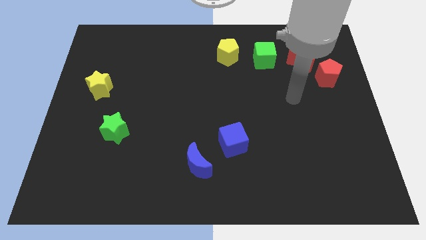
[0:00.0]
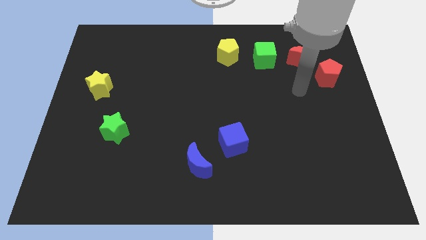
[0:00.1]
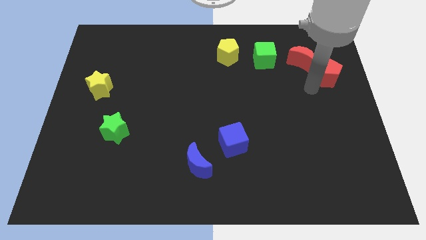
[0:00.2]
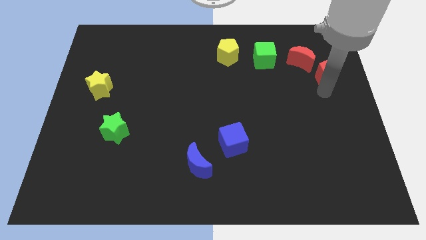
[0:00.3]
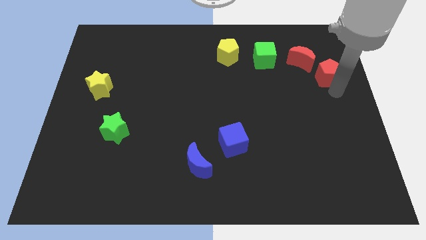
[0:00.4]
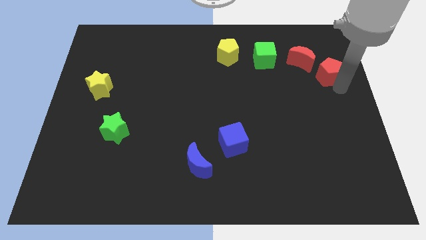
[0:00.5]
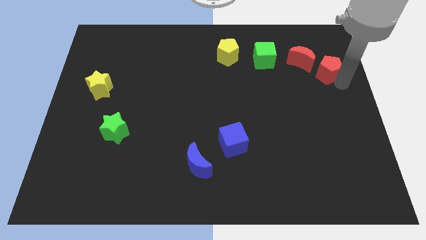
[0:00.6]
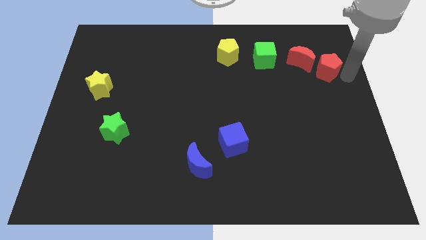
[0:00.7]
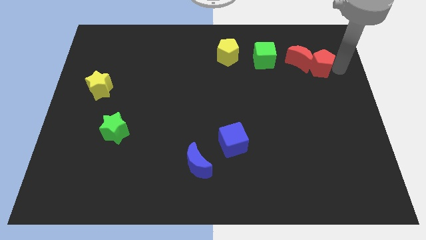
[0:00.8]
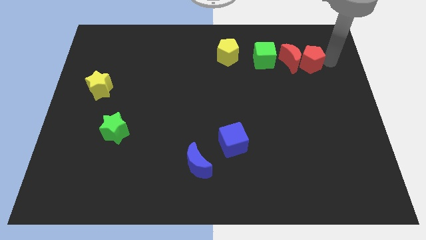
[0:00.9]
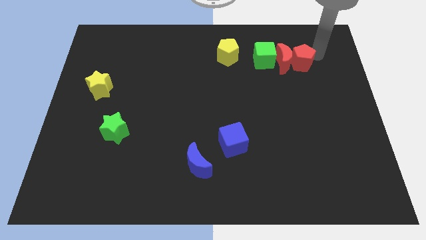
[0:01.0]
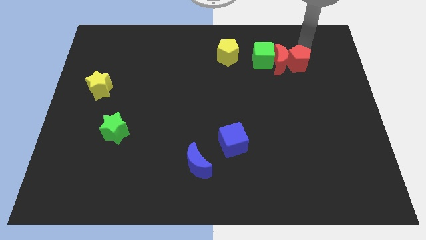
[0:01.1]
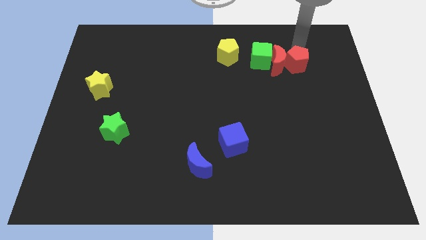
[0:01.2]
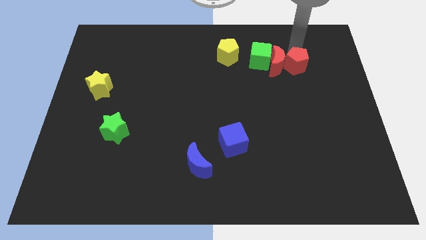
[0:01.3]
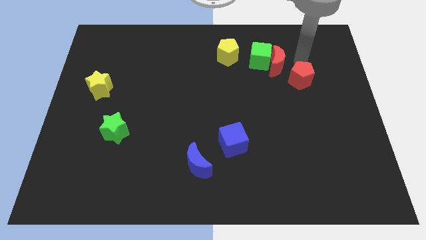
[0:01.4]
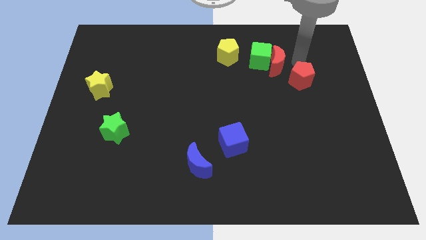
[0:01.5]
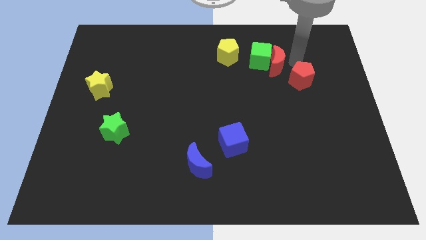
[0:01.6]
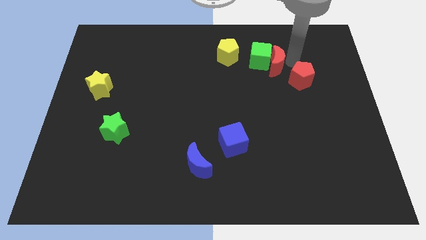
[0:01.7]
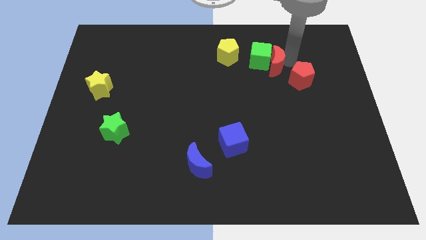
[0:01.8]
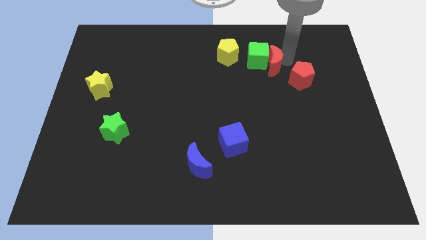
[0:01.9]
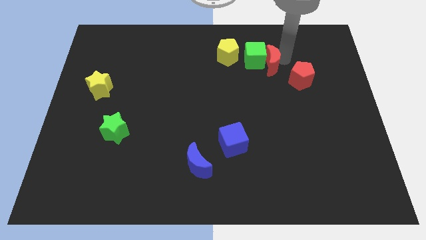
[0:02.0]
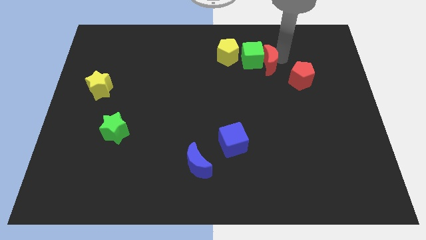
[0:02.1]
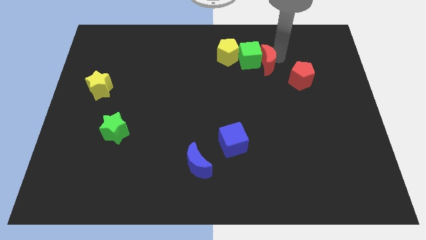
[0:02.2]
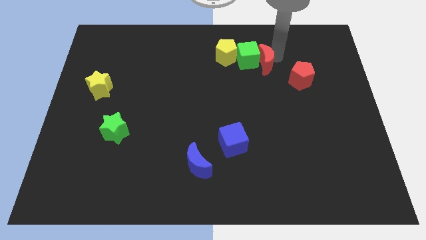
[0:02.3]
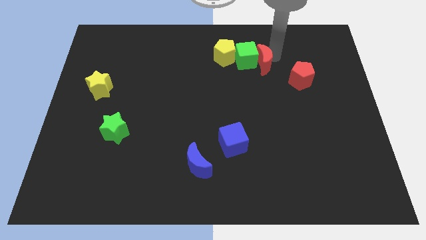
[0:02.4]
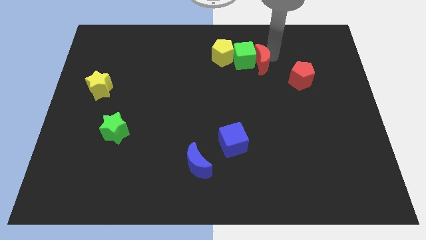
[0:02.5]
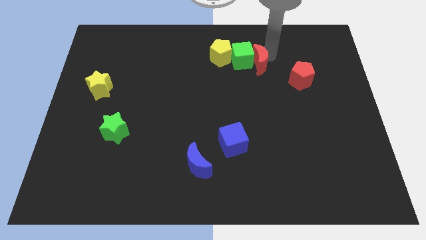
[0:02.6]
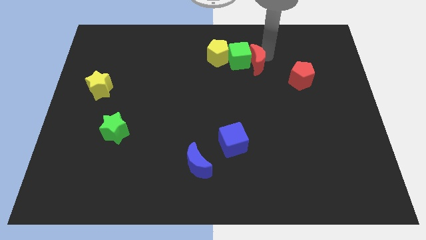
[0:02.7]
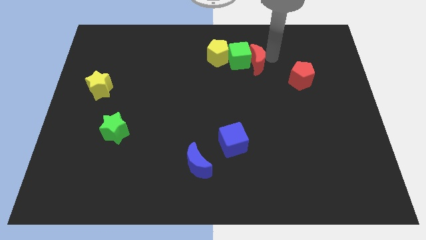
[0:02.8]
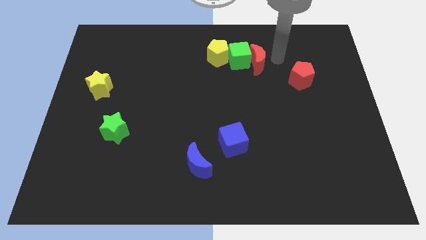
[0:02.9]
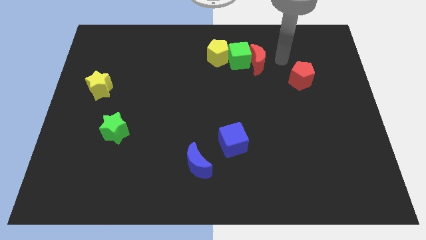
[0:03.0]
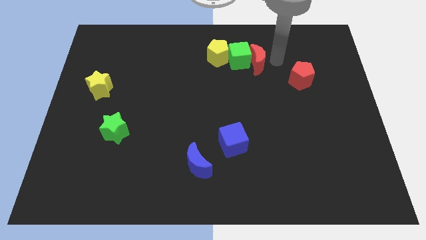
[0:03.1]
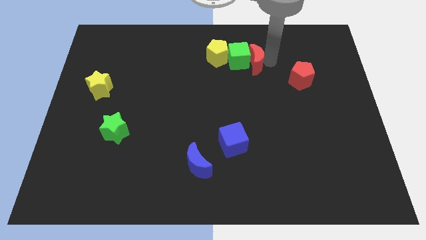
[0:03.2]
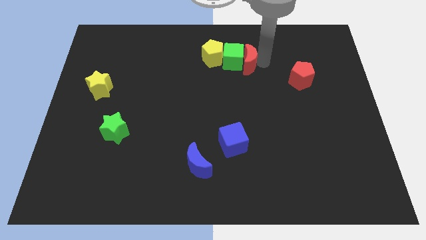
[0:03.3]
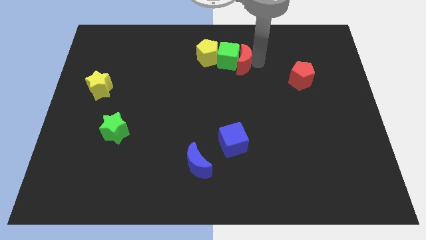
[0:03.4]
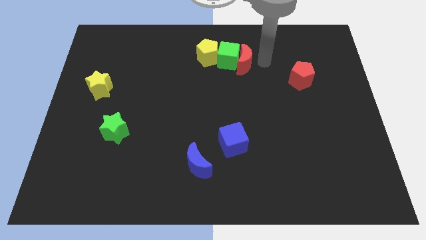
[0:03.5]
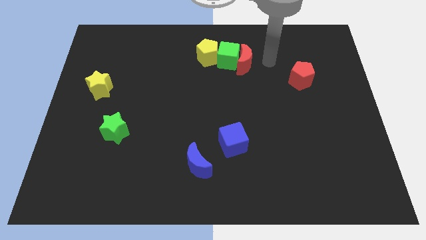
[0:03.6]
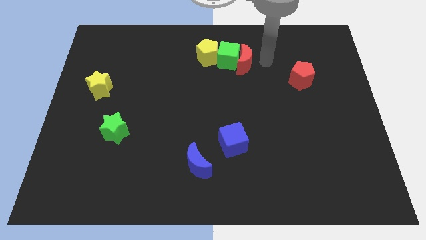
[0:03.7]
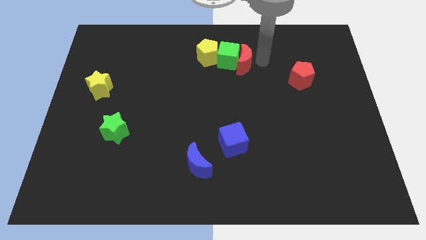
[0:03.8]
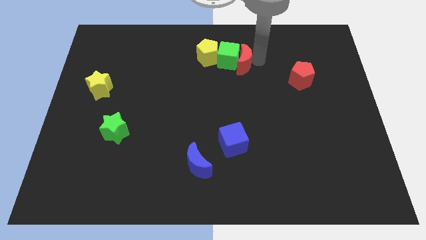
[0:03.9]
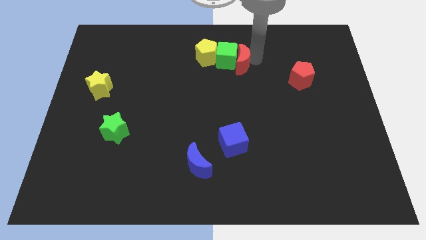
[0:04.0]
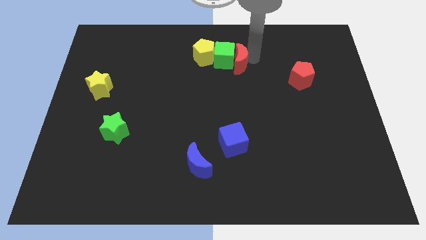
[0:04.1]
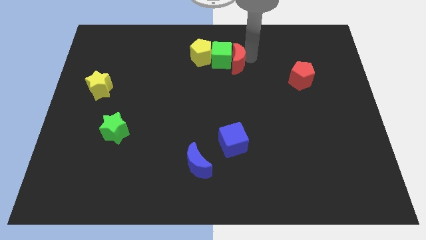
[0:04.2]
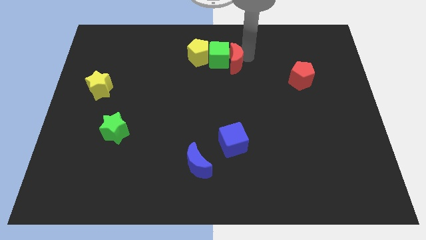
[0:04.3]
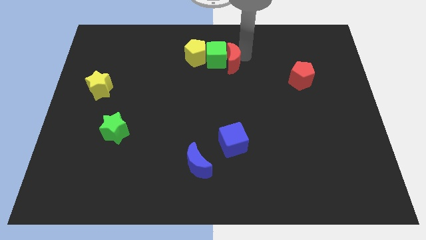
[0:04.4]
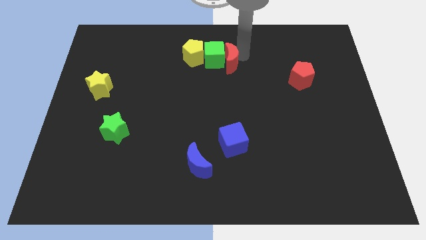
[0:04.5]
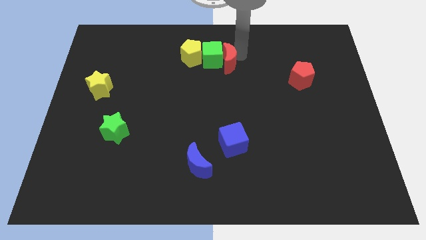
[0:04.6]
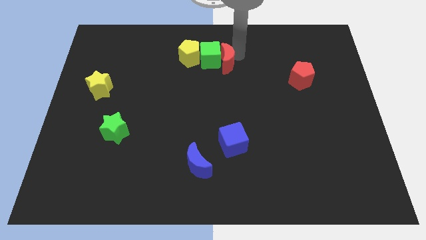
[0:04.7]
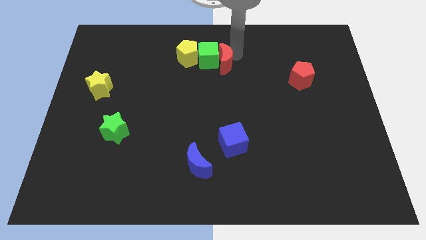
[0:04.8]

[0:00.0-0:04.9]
move the red moon left

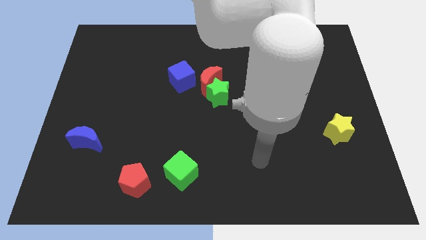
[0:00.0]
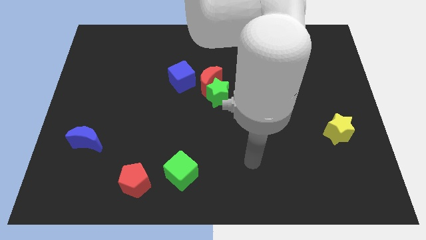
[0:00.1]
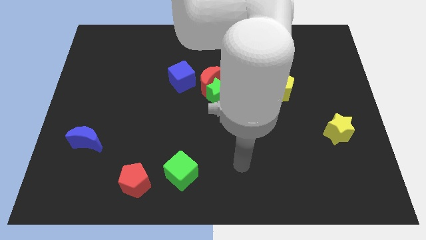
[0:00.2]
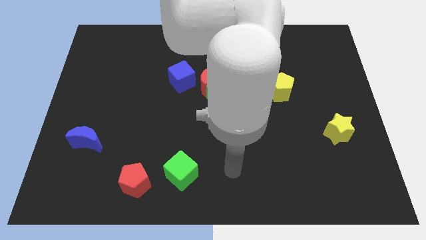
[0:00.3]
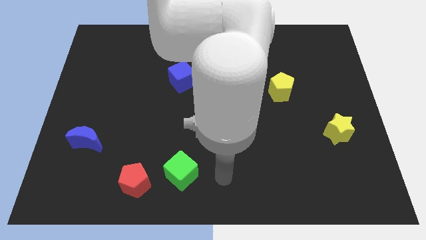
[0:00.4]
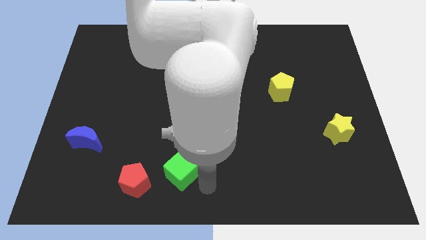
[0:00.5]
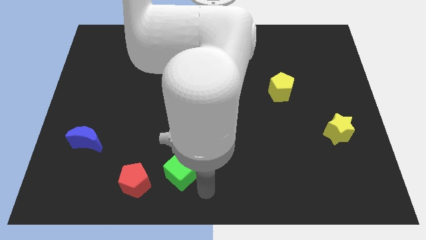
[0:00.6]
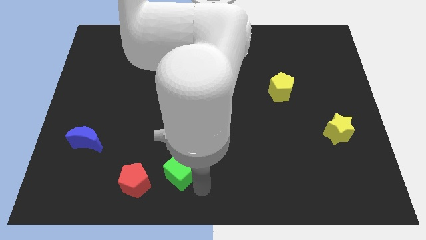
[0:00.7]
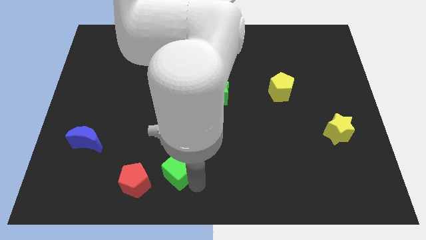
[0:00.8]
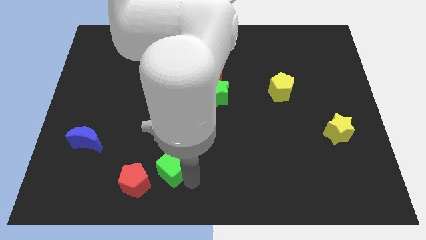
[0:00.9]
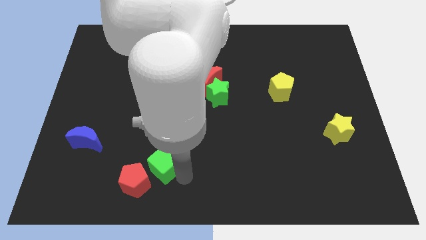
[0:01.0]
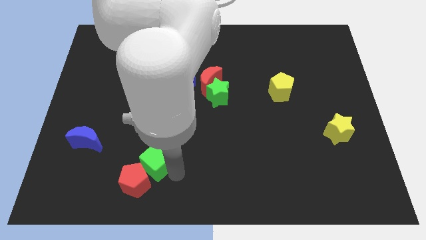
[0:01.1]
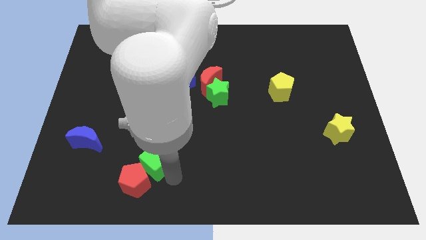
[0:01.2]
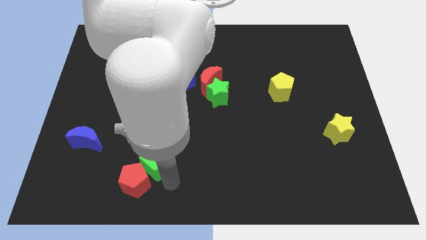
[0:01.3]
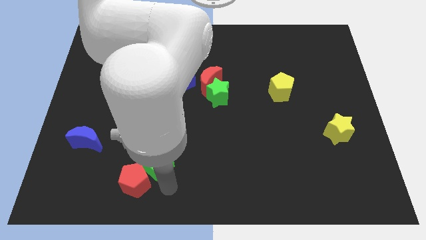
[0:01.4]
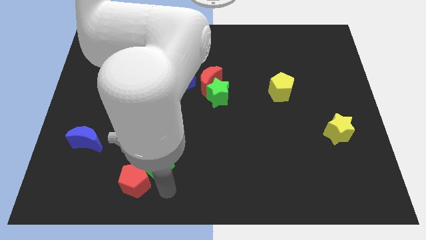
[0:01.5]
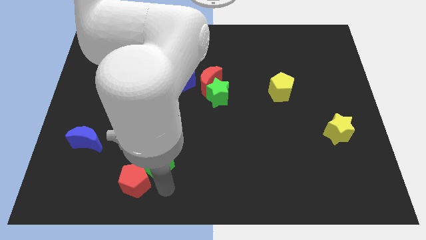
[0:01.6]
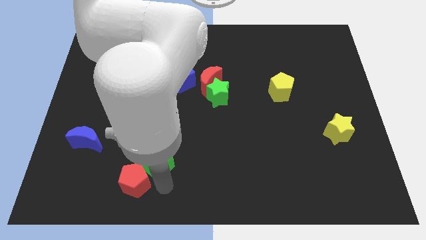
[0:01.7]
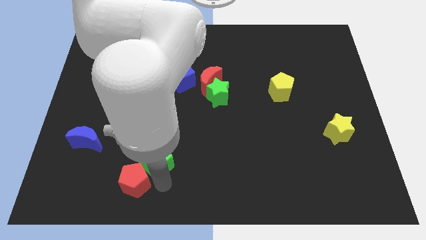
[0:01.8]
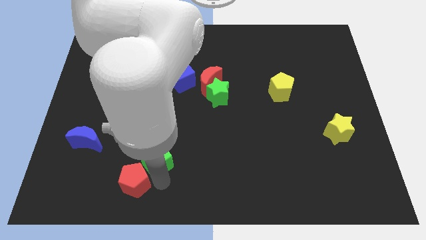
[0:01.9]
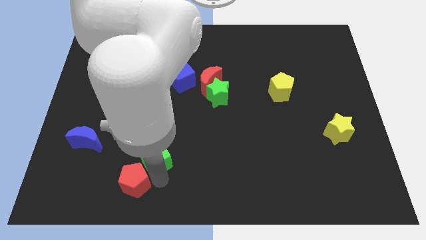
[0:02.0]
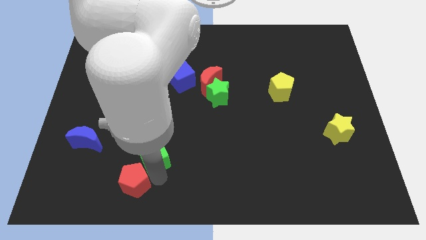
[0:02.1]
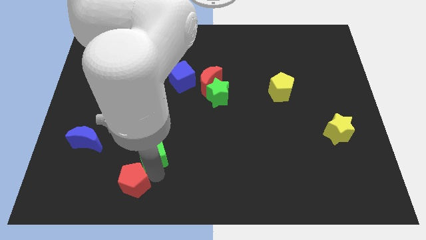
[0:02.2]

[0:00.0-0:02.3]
slightly push the green cube diagonally upwards and to the left

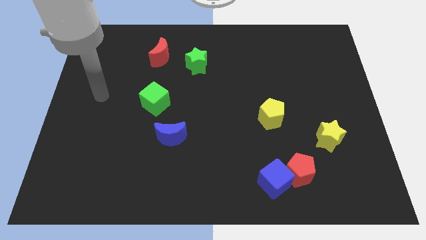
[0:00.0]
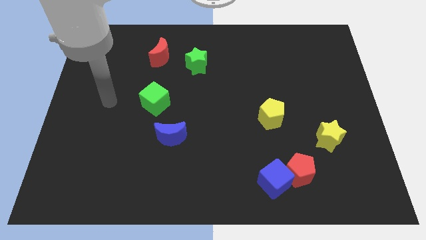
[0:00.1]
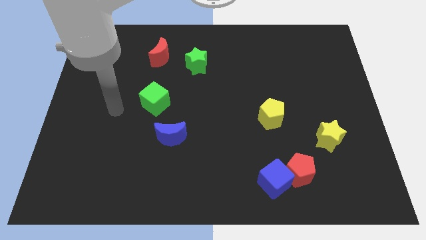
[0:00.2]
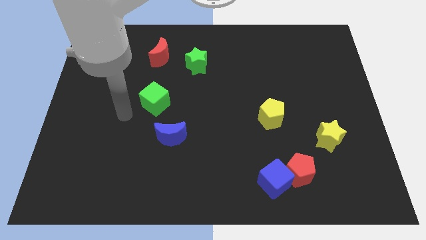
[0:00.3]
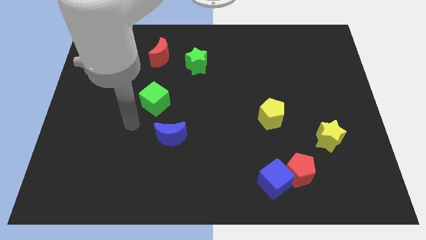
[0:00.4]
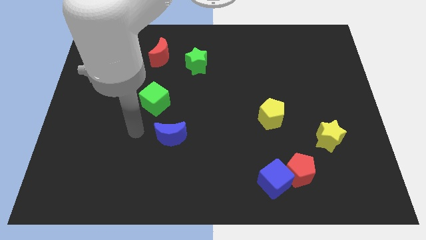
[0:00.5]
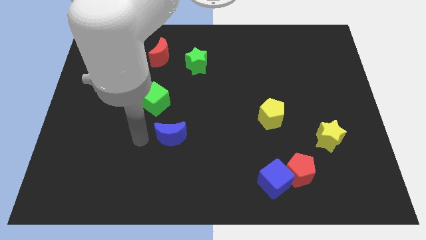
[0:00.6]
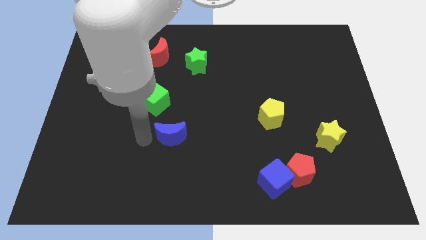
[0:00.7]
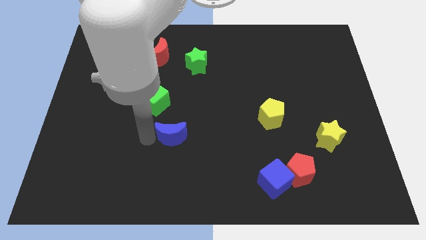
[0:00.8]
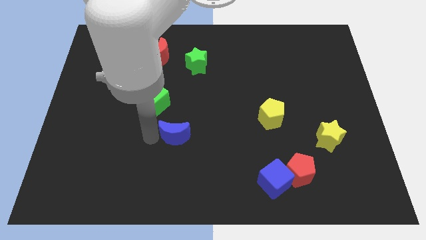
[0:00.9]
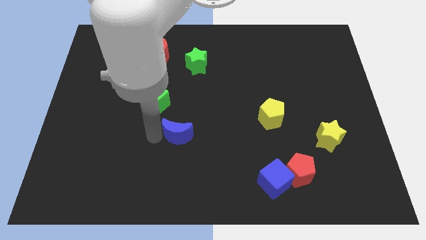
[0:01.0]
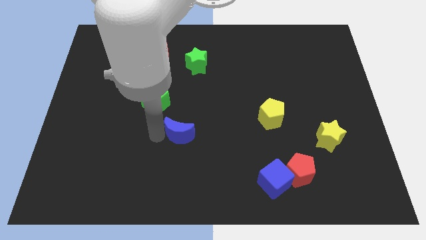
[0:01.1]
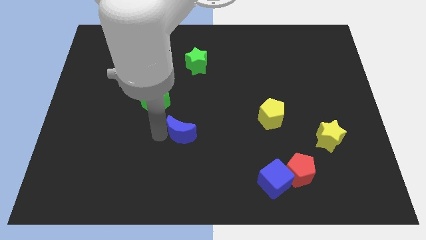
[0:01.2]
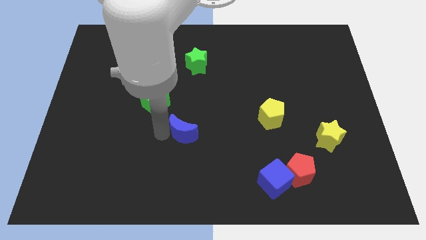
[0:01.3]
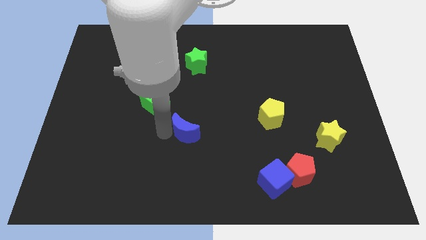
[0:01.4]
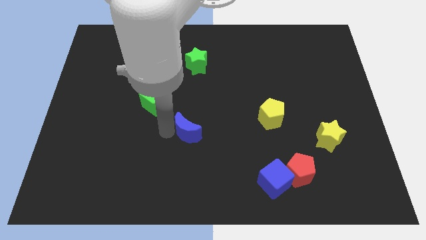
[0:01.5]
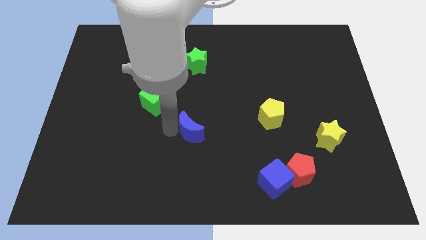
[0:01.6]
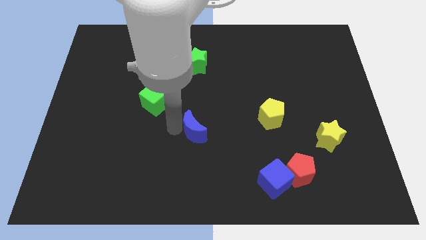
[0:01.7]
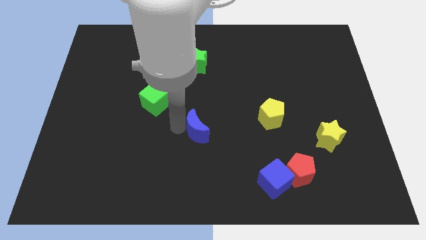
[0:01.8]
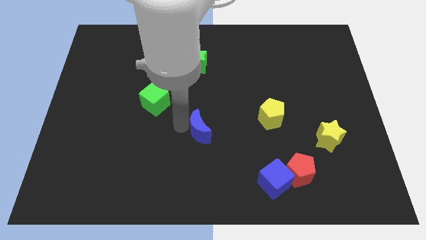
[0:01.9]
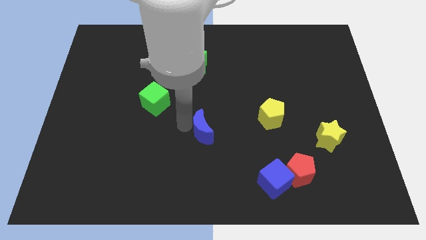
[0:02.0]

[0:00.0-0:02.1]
slightly move the blue moon to the right
